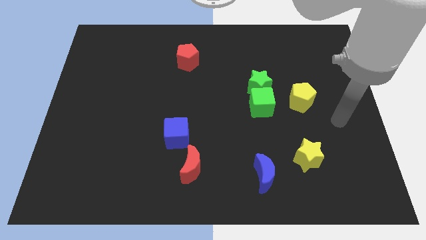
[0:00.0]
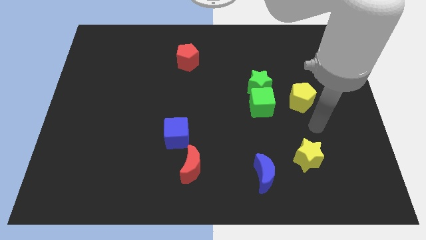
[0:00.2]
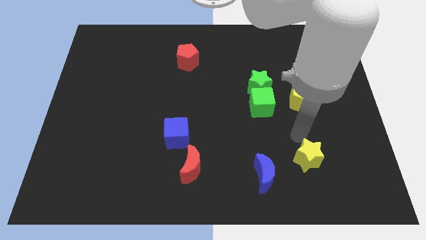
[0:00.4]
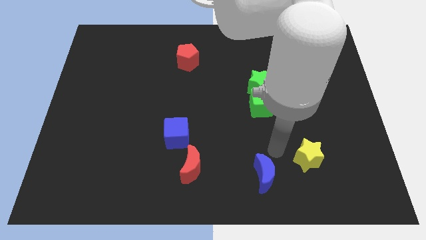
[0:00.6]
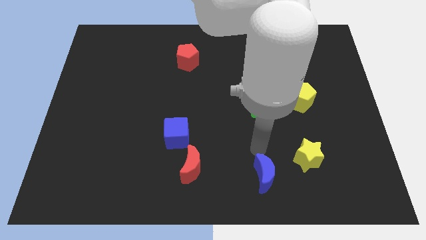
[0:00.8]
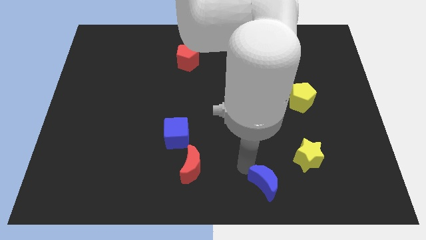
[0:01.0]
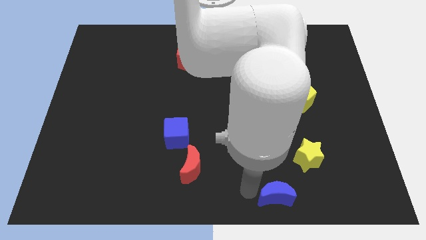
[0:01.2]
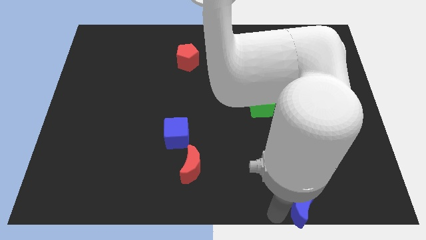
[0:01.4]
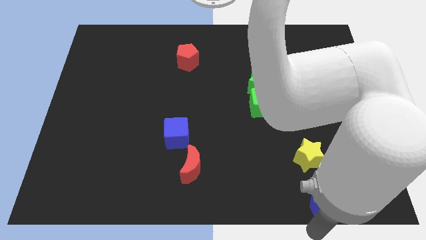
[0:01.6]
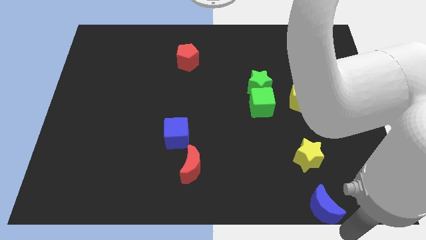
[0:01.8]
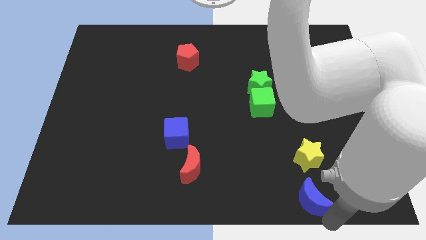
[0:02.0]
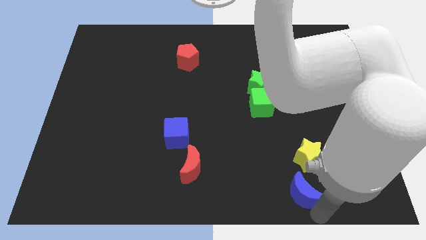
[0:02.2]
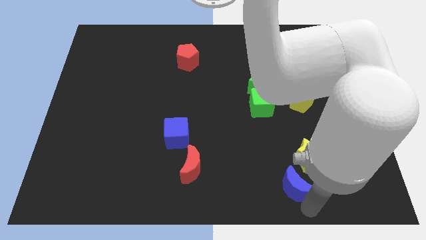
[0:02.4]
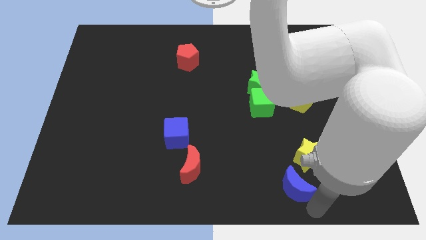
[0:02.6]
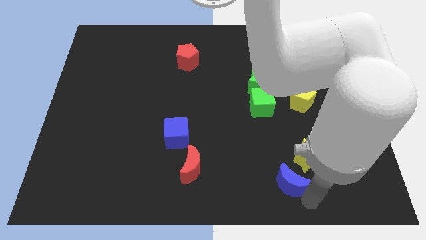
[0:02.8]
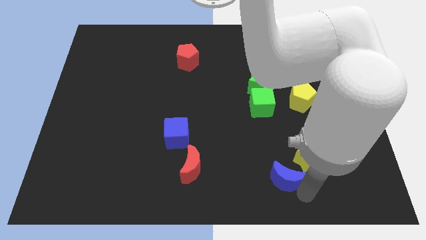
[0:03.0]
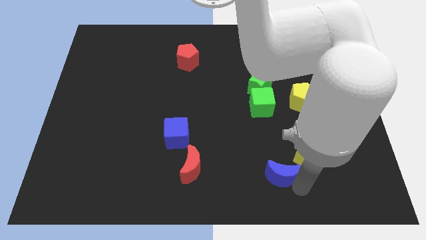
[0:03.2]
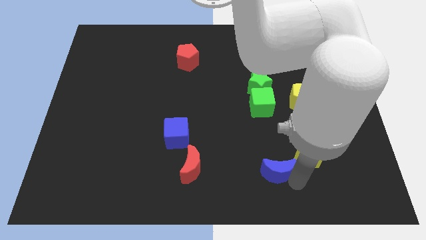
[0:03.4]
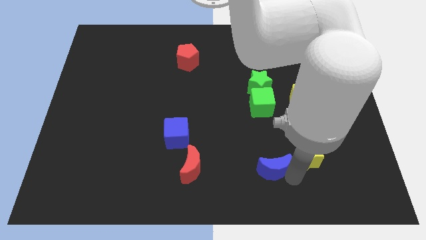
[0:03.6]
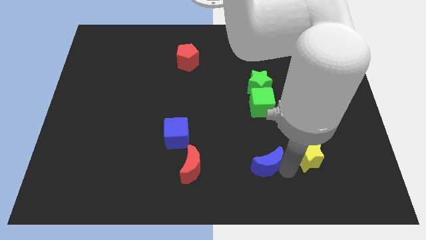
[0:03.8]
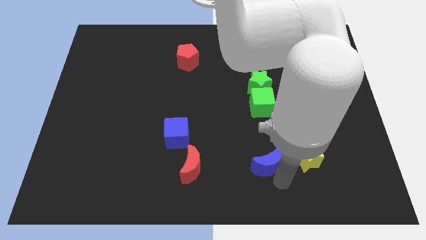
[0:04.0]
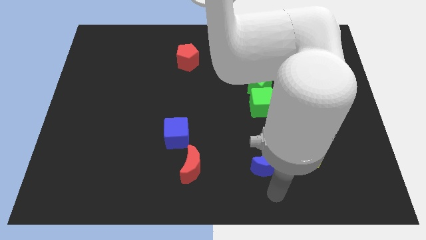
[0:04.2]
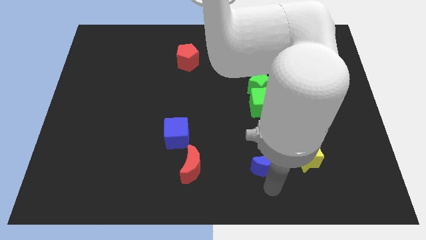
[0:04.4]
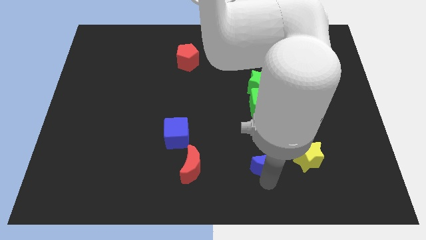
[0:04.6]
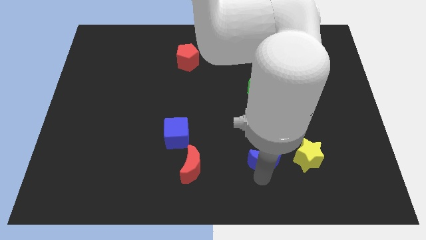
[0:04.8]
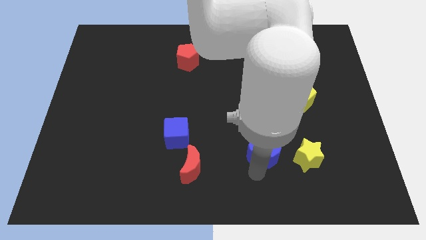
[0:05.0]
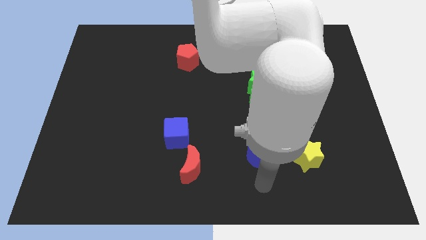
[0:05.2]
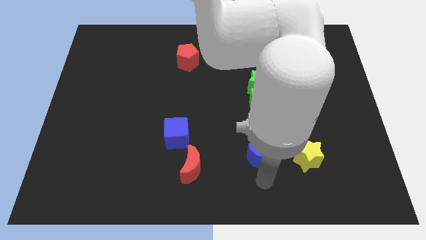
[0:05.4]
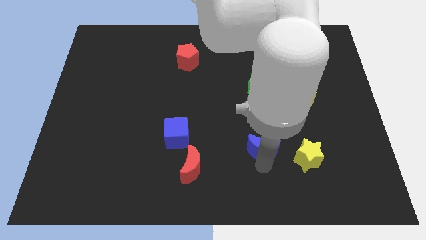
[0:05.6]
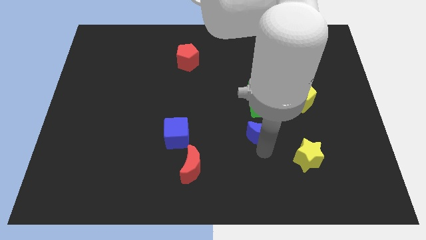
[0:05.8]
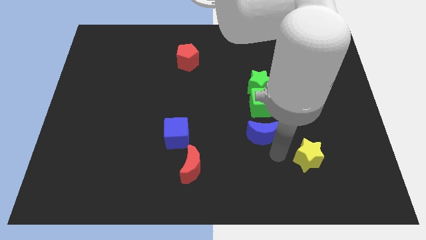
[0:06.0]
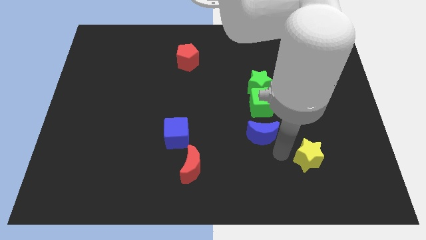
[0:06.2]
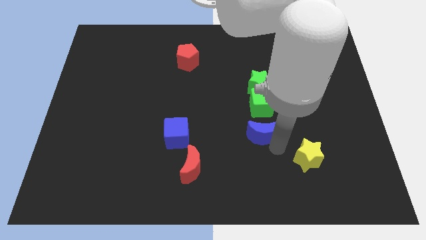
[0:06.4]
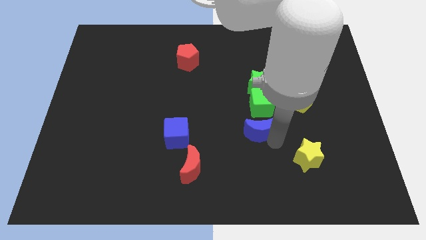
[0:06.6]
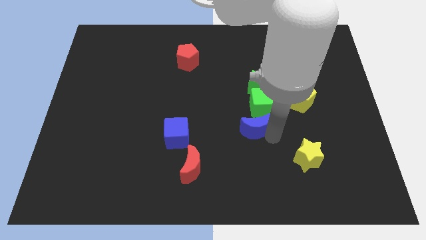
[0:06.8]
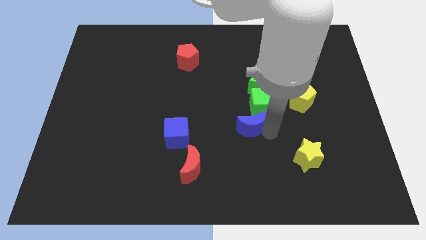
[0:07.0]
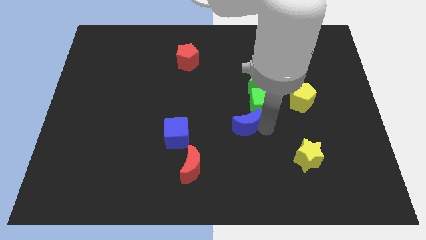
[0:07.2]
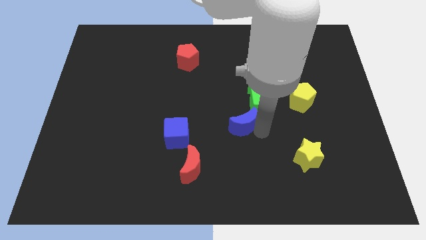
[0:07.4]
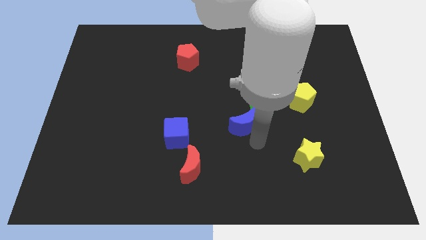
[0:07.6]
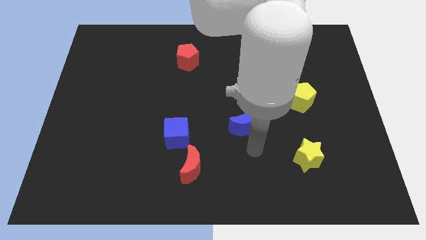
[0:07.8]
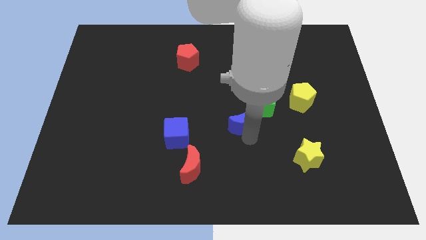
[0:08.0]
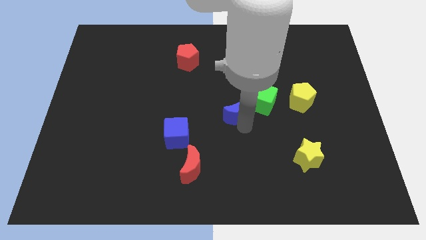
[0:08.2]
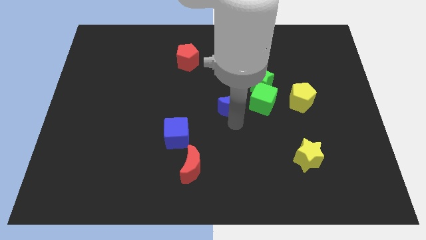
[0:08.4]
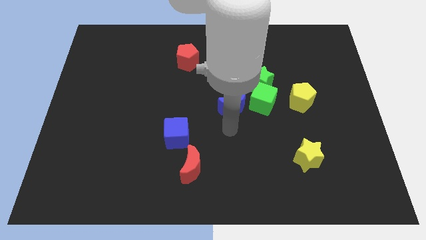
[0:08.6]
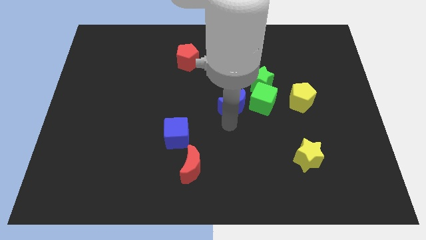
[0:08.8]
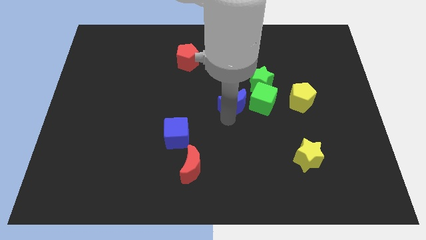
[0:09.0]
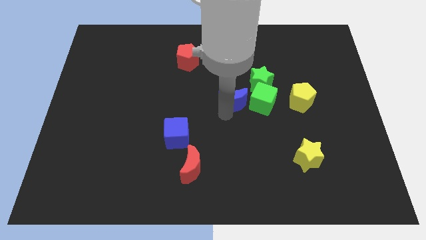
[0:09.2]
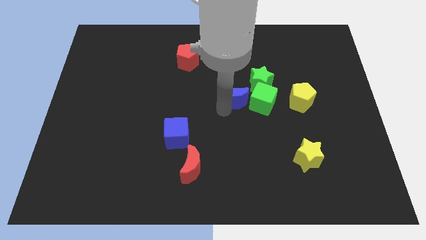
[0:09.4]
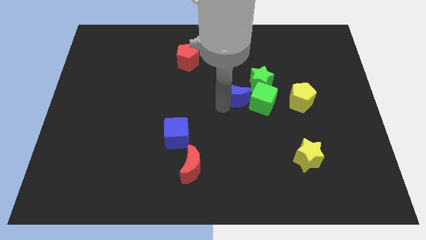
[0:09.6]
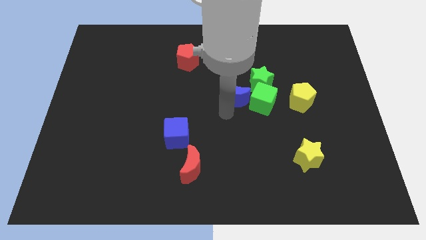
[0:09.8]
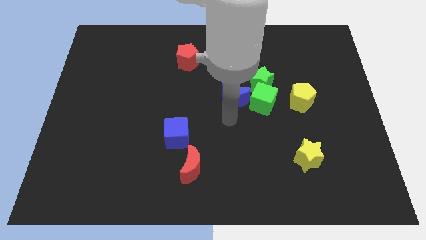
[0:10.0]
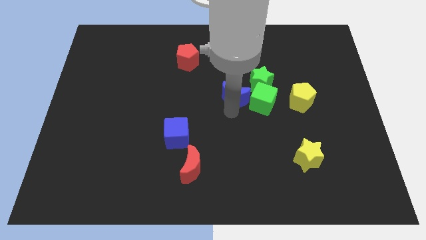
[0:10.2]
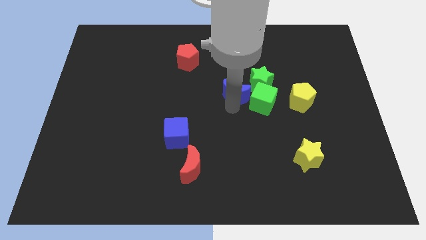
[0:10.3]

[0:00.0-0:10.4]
slide the blue moon up

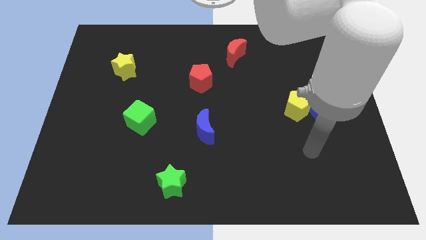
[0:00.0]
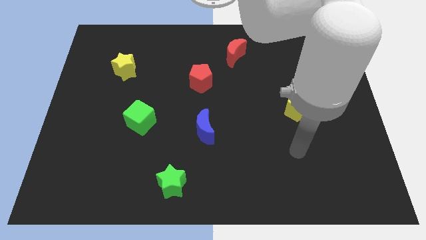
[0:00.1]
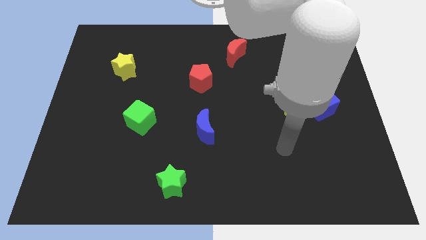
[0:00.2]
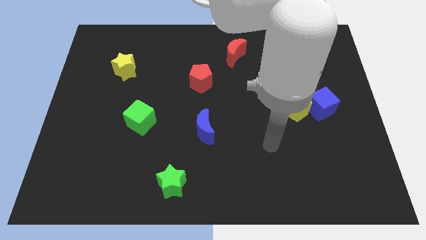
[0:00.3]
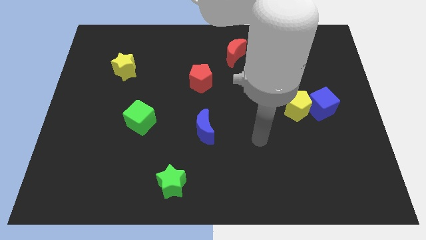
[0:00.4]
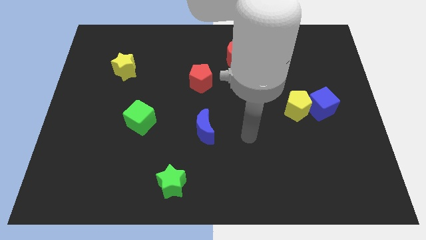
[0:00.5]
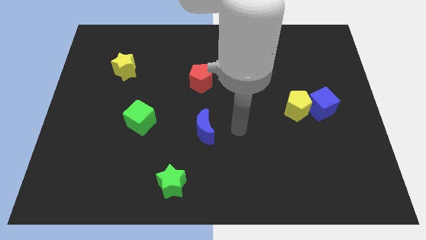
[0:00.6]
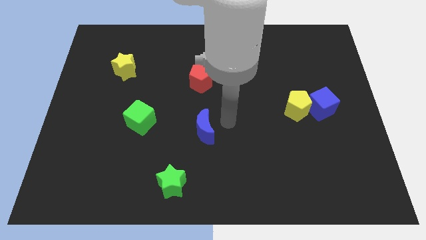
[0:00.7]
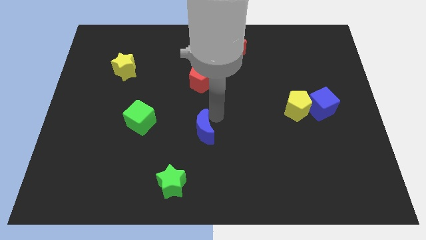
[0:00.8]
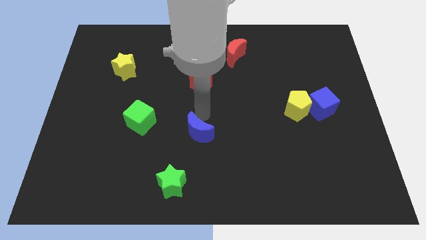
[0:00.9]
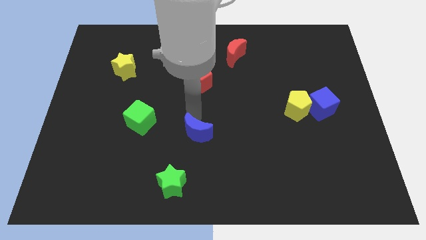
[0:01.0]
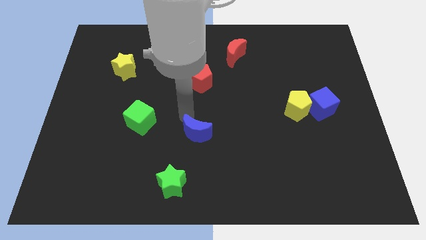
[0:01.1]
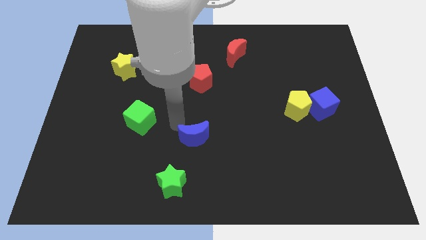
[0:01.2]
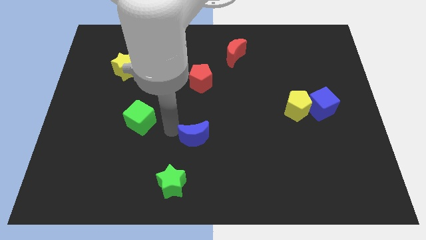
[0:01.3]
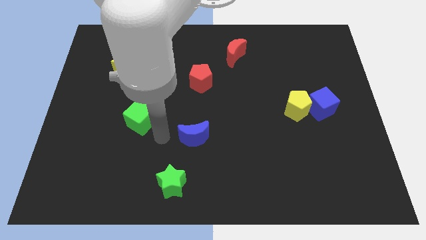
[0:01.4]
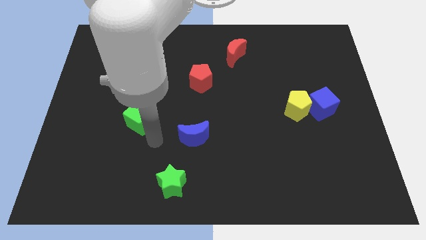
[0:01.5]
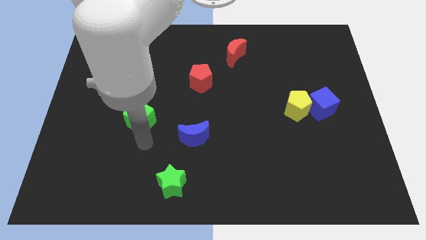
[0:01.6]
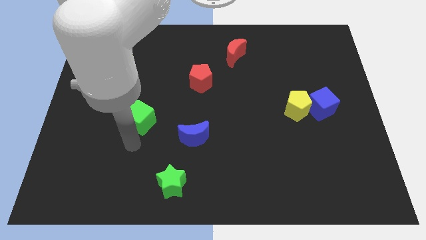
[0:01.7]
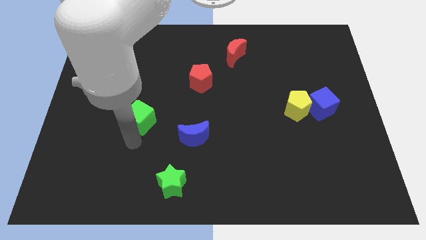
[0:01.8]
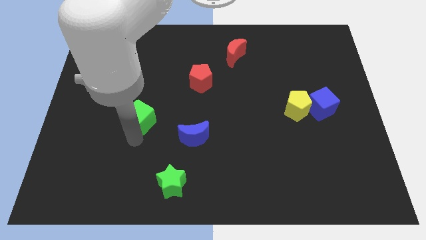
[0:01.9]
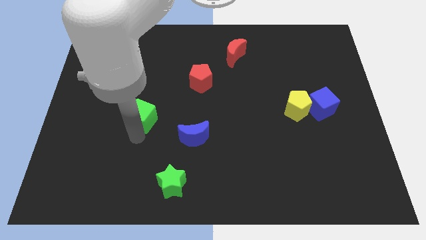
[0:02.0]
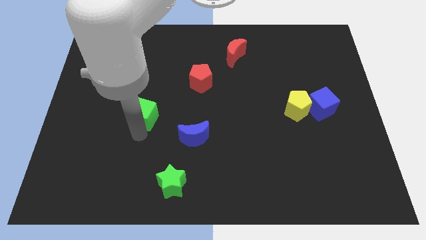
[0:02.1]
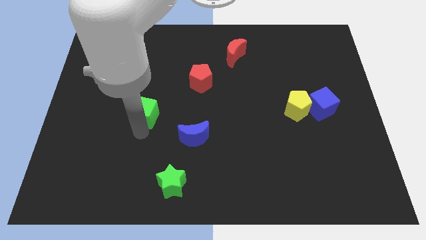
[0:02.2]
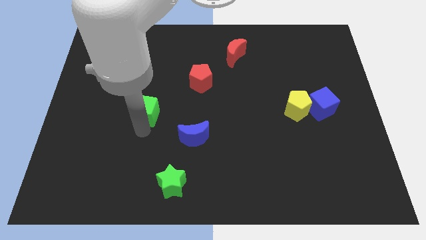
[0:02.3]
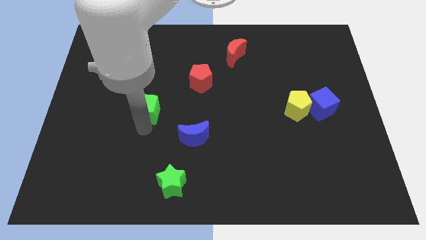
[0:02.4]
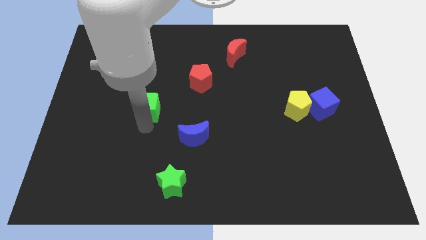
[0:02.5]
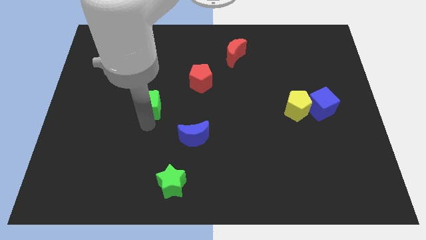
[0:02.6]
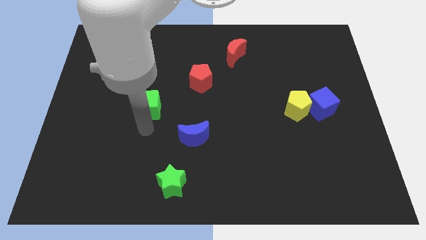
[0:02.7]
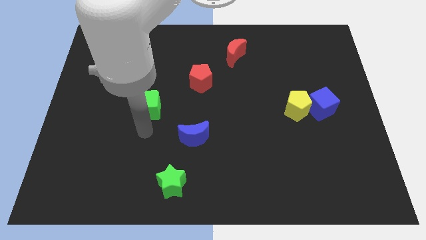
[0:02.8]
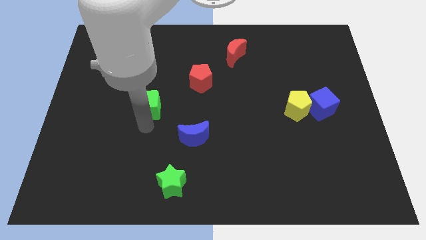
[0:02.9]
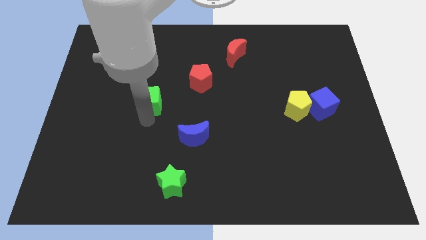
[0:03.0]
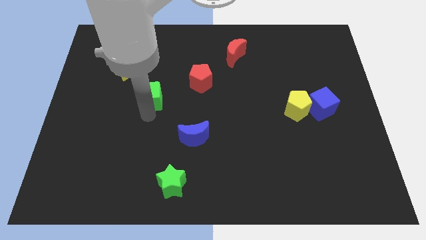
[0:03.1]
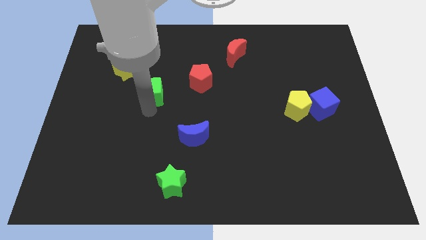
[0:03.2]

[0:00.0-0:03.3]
slide the green cube a little bit up
